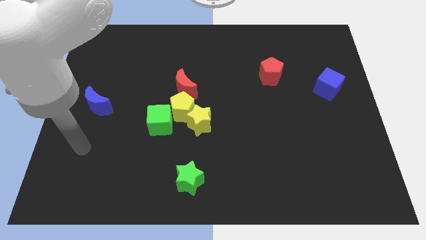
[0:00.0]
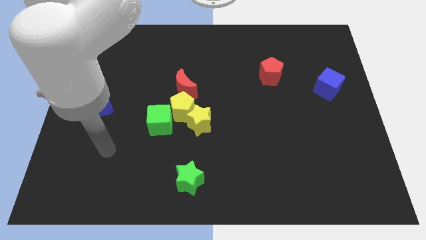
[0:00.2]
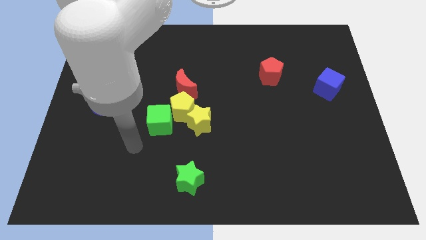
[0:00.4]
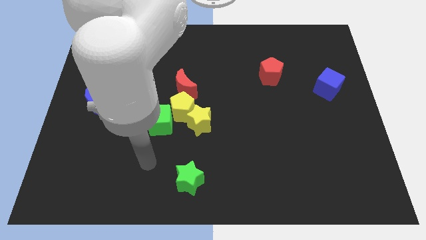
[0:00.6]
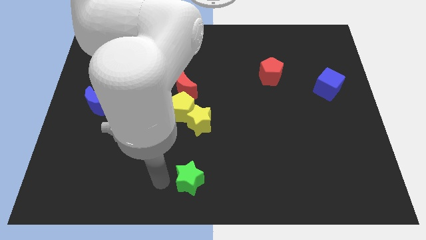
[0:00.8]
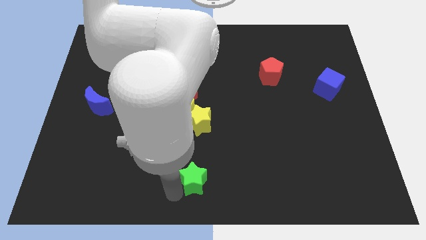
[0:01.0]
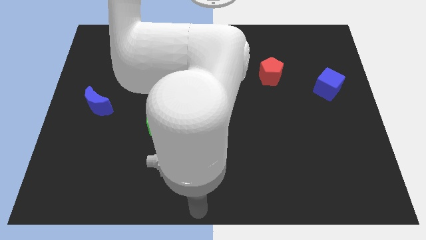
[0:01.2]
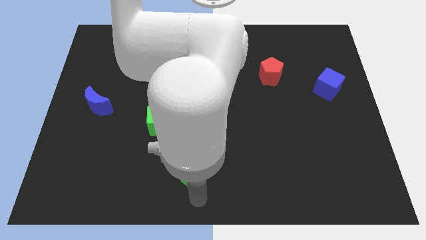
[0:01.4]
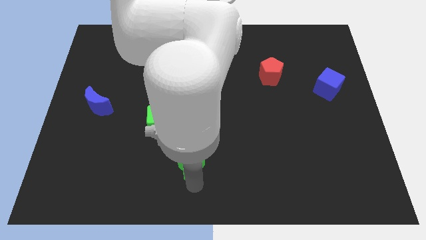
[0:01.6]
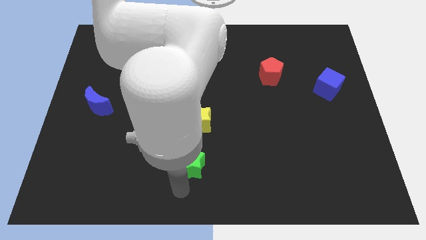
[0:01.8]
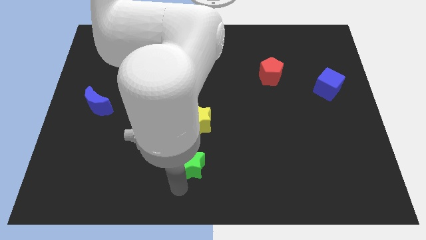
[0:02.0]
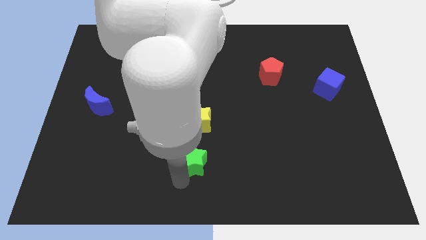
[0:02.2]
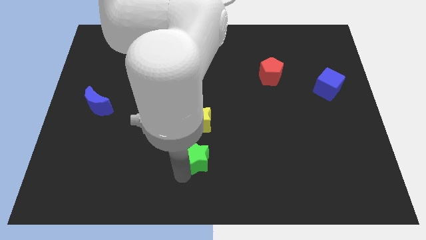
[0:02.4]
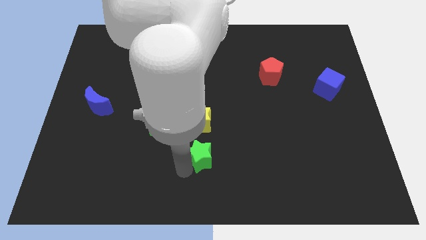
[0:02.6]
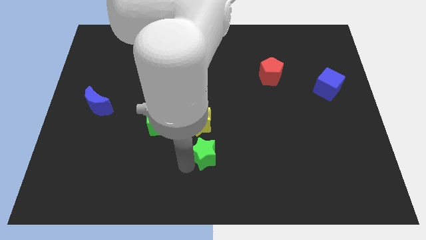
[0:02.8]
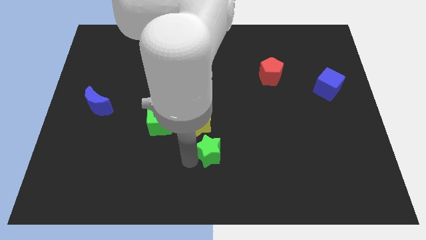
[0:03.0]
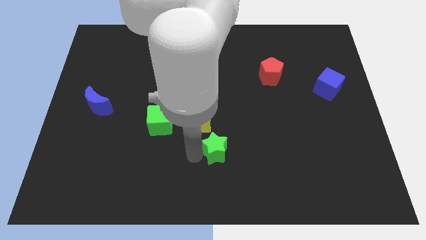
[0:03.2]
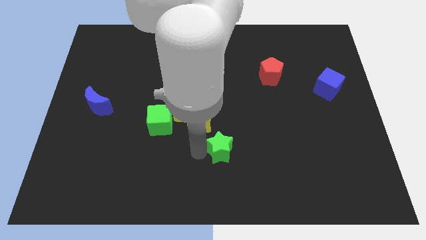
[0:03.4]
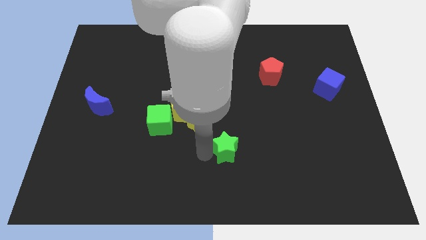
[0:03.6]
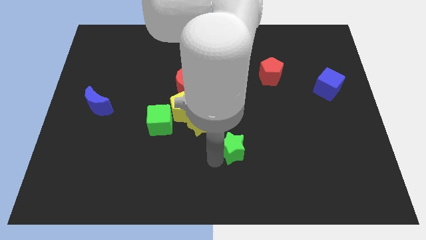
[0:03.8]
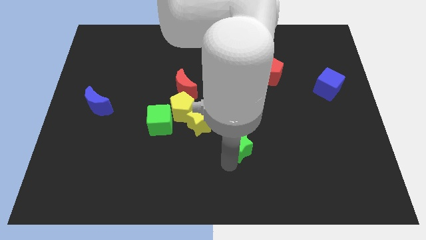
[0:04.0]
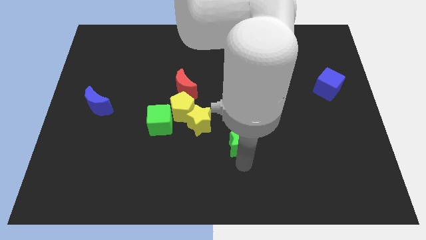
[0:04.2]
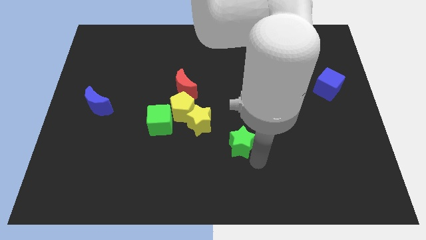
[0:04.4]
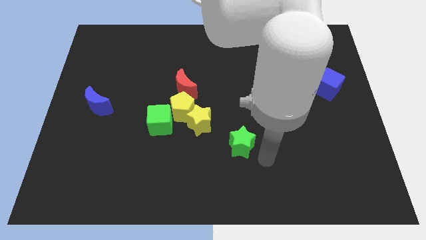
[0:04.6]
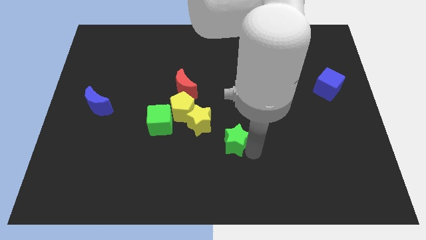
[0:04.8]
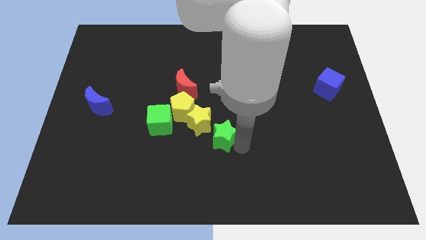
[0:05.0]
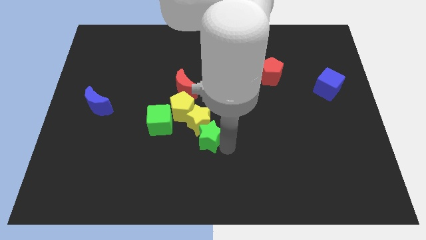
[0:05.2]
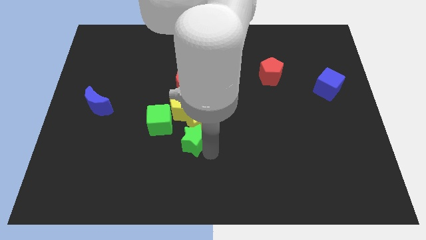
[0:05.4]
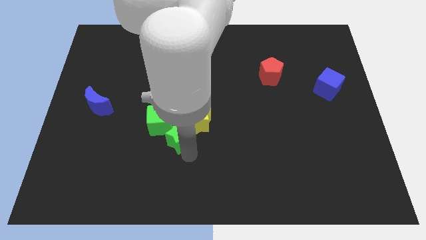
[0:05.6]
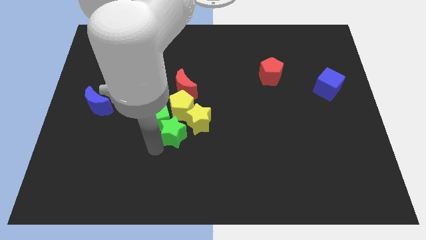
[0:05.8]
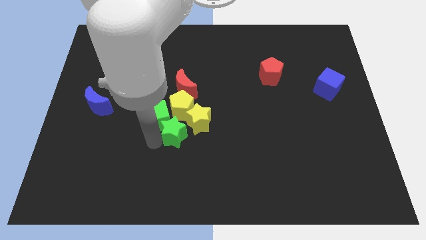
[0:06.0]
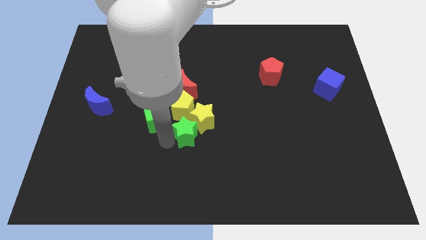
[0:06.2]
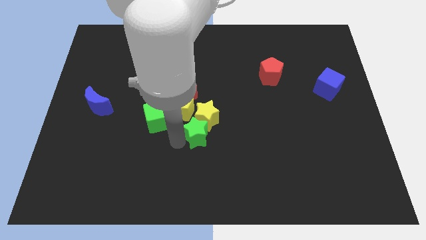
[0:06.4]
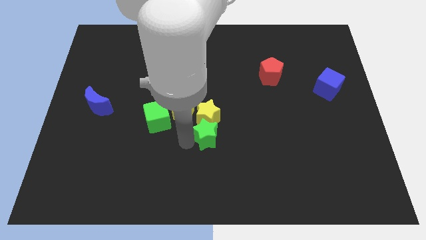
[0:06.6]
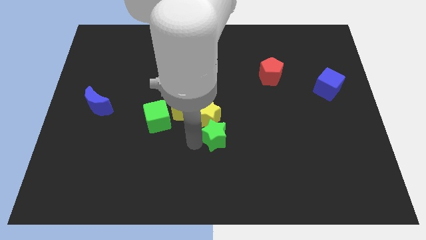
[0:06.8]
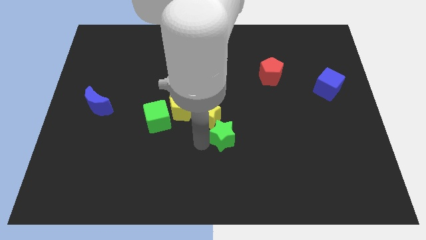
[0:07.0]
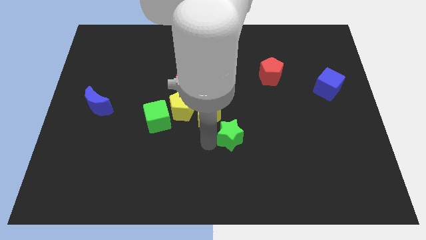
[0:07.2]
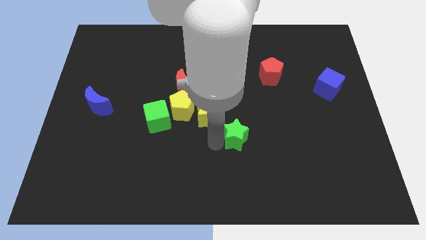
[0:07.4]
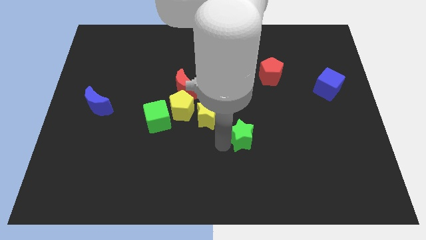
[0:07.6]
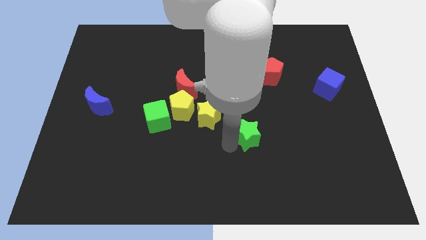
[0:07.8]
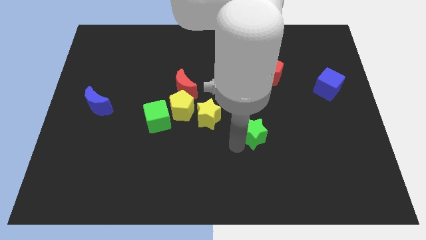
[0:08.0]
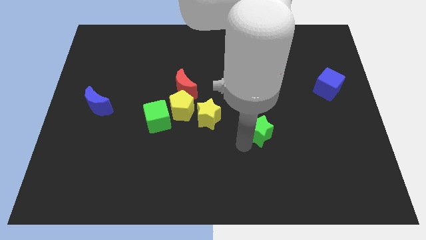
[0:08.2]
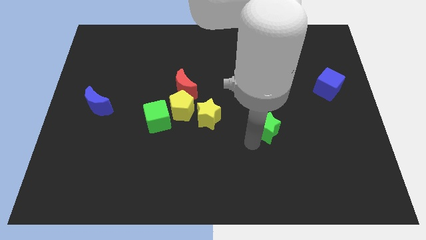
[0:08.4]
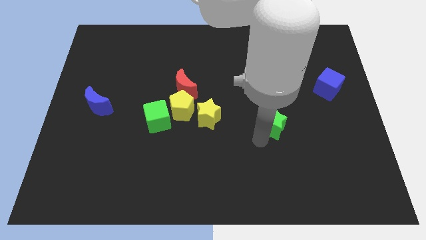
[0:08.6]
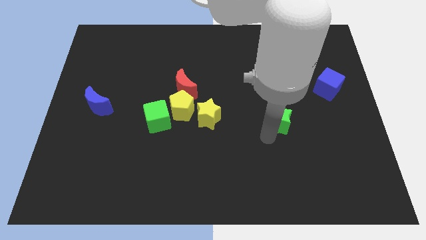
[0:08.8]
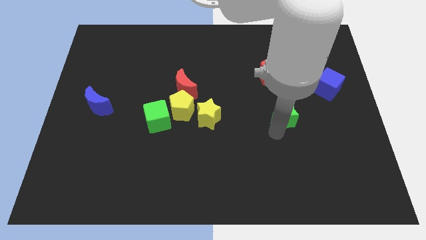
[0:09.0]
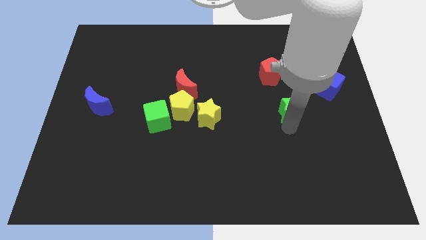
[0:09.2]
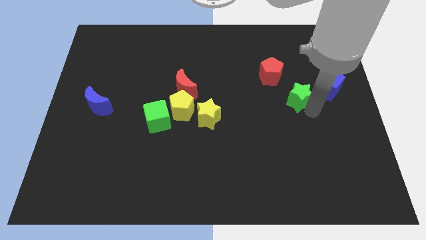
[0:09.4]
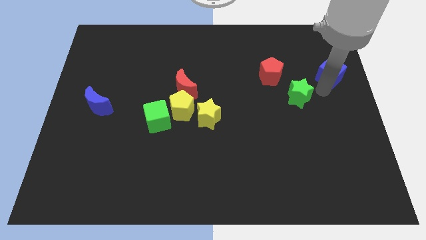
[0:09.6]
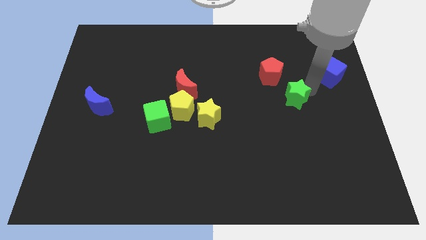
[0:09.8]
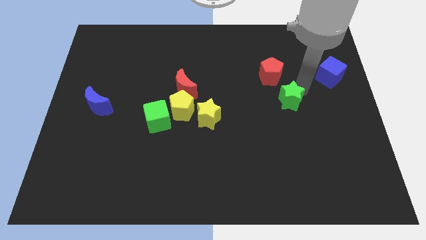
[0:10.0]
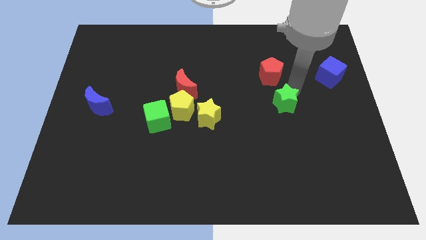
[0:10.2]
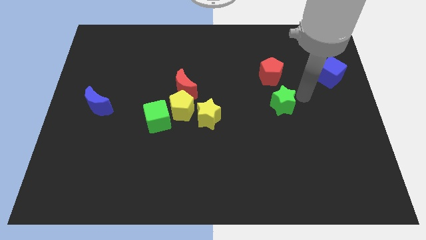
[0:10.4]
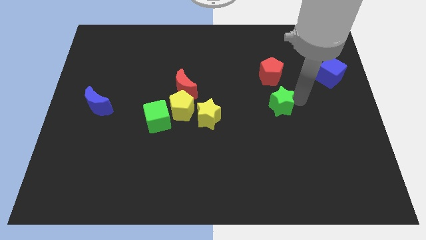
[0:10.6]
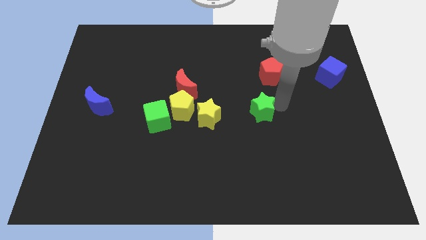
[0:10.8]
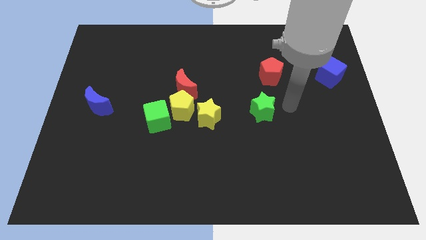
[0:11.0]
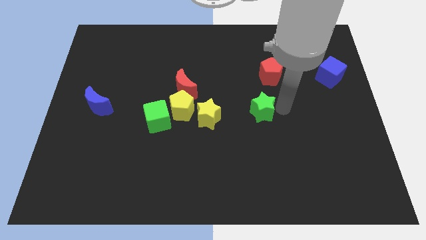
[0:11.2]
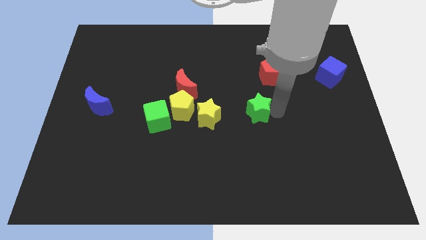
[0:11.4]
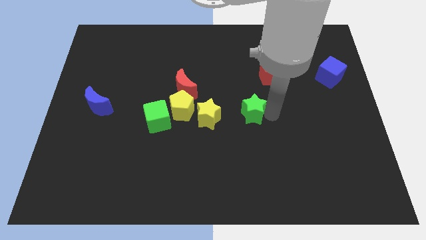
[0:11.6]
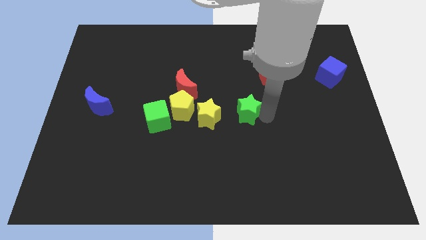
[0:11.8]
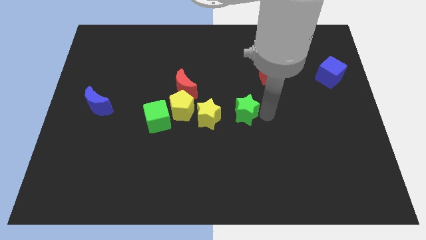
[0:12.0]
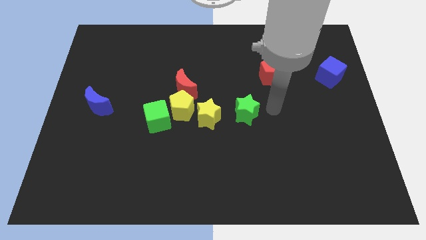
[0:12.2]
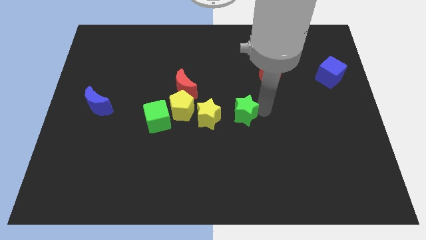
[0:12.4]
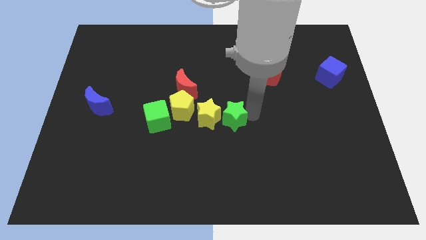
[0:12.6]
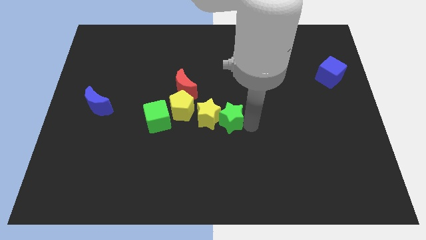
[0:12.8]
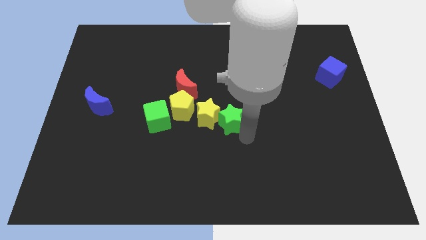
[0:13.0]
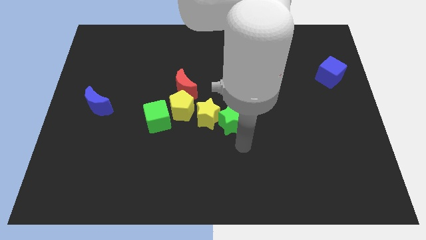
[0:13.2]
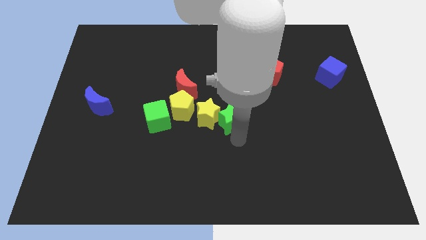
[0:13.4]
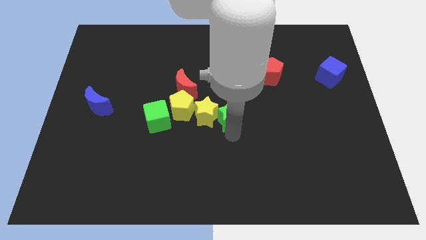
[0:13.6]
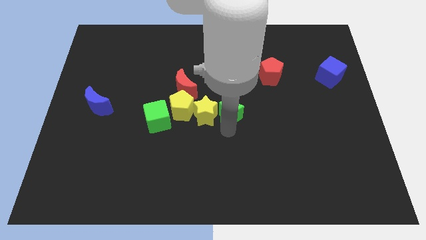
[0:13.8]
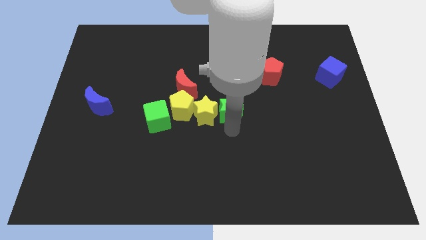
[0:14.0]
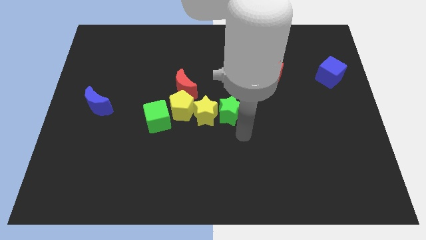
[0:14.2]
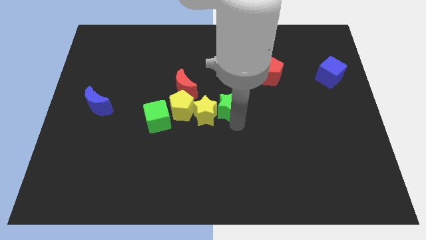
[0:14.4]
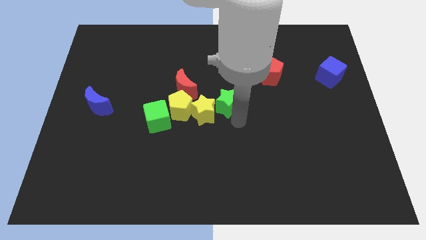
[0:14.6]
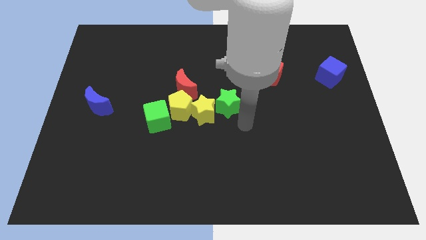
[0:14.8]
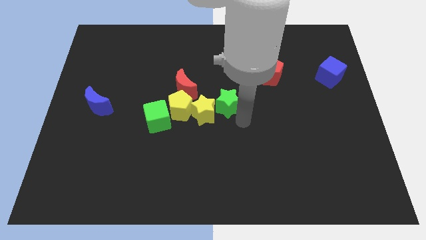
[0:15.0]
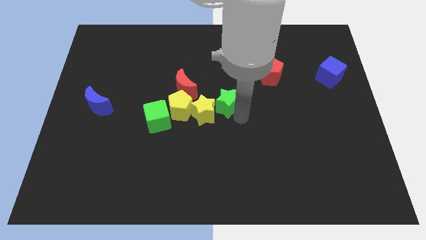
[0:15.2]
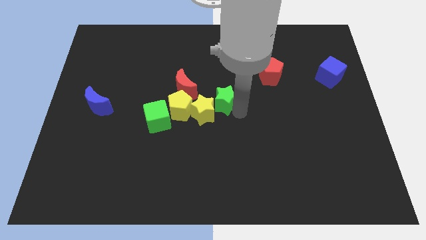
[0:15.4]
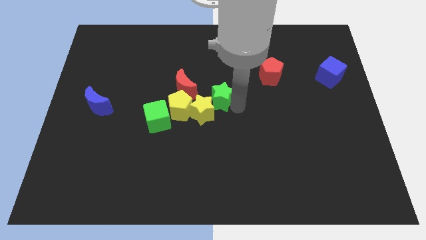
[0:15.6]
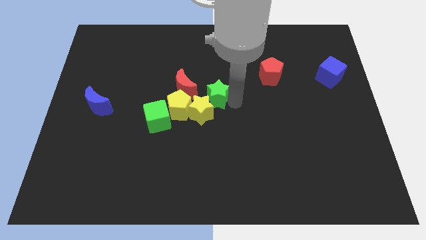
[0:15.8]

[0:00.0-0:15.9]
move the green star up

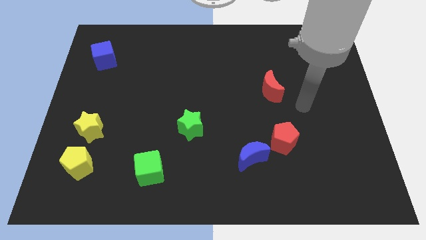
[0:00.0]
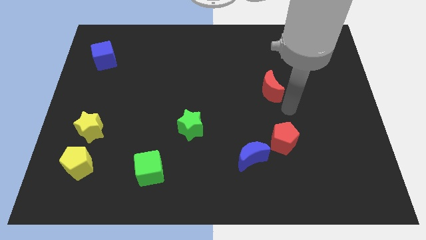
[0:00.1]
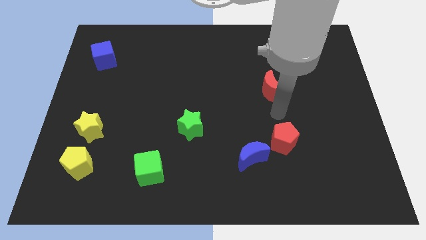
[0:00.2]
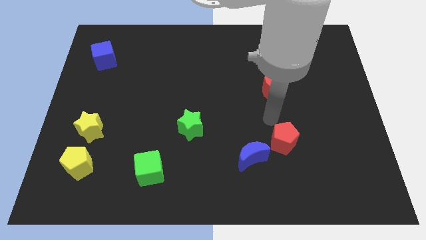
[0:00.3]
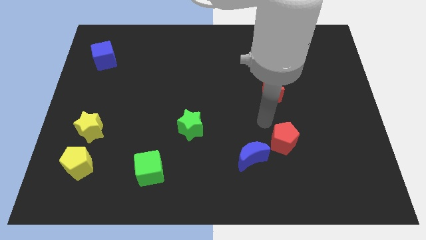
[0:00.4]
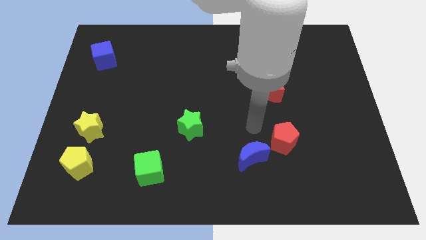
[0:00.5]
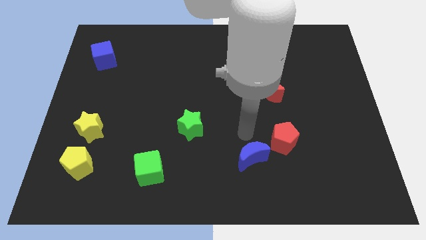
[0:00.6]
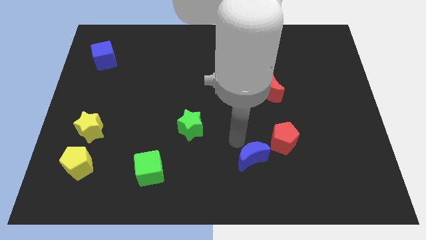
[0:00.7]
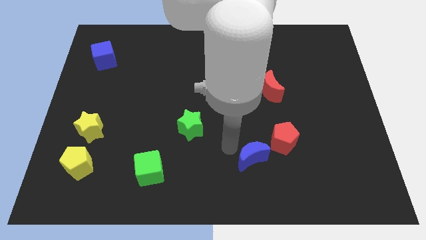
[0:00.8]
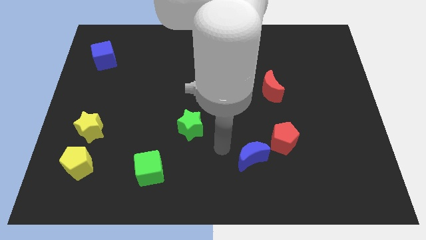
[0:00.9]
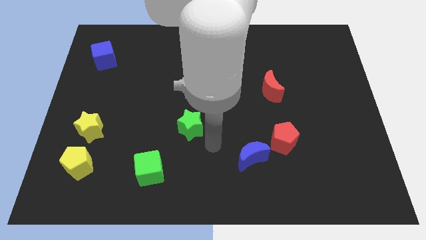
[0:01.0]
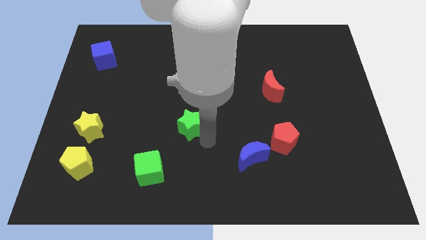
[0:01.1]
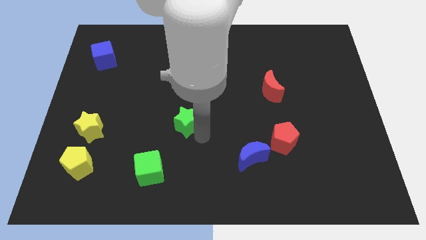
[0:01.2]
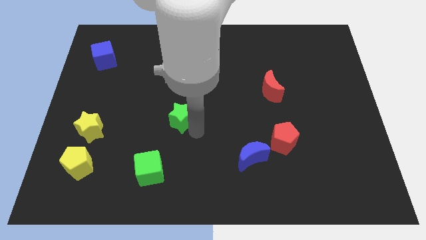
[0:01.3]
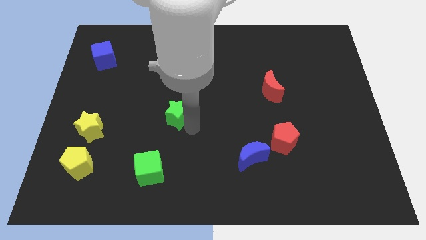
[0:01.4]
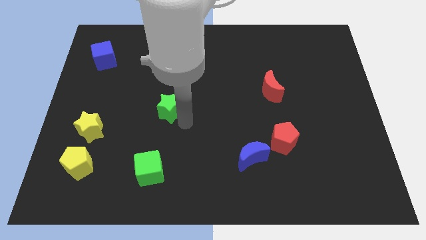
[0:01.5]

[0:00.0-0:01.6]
push the green star up and to the left slightly
